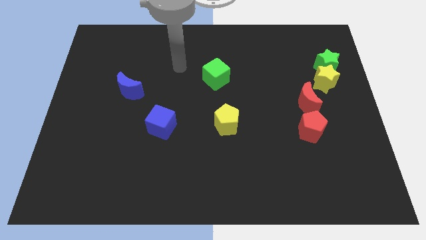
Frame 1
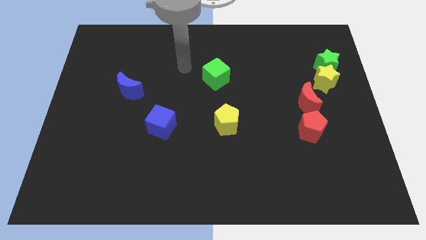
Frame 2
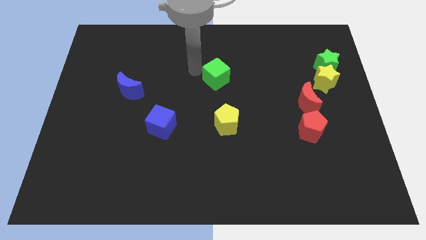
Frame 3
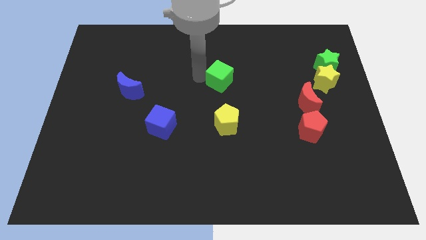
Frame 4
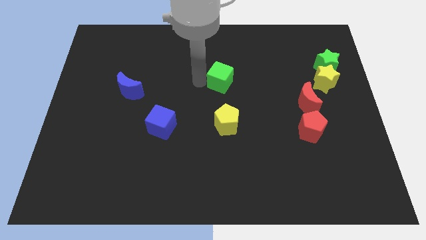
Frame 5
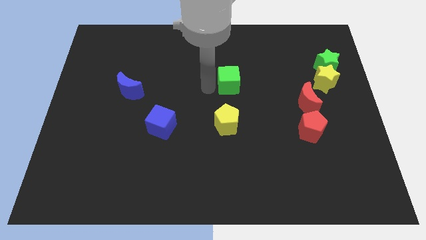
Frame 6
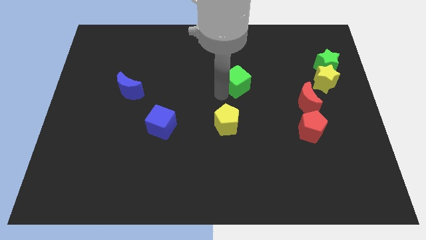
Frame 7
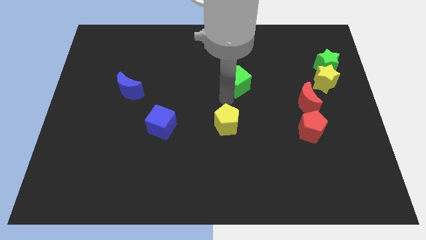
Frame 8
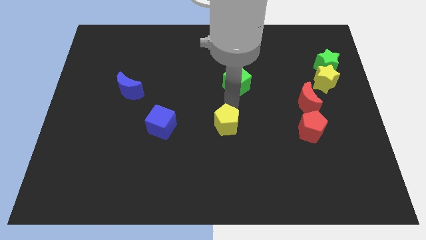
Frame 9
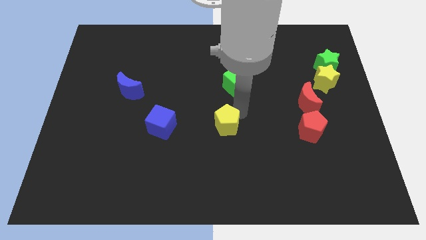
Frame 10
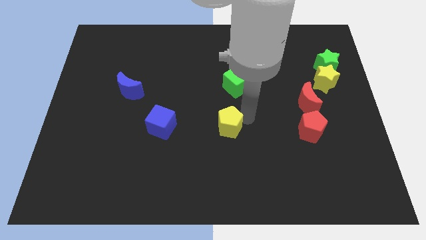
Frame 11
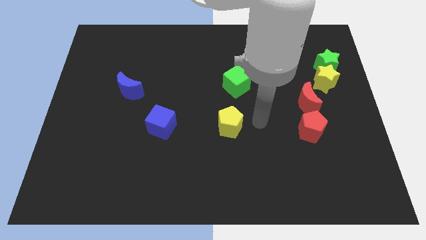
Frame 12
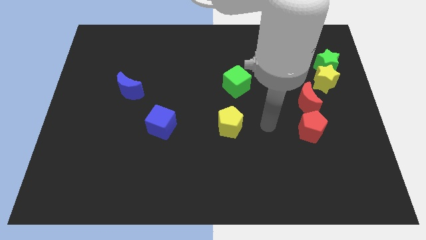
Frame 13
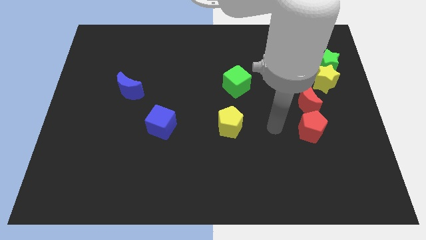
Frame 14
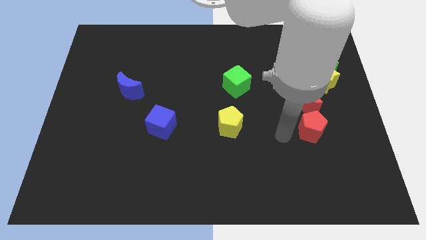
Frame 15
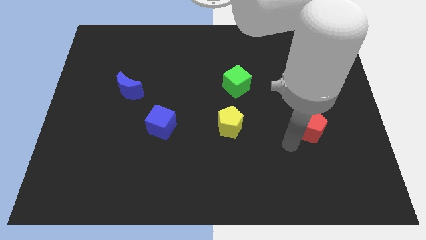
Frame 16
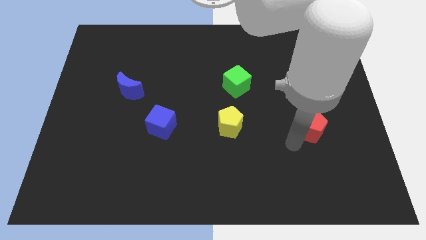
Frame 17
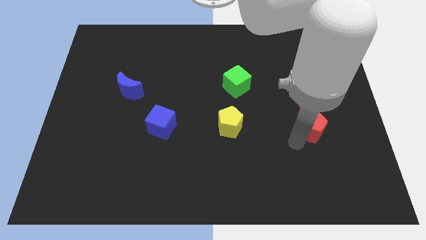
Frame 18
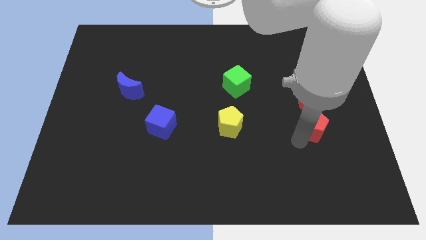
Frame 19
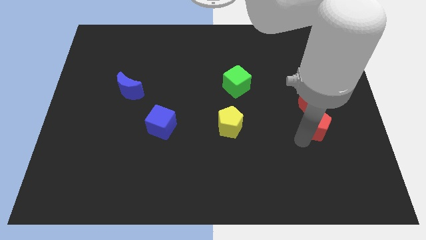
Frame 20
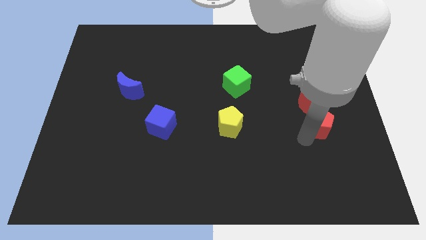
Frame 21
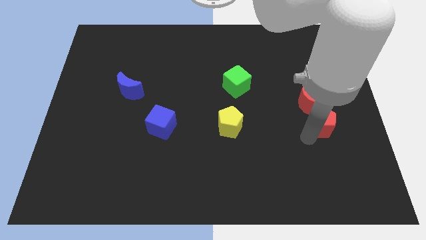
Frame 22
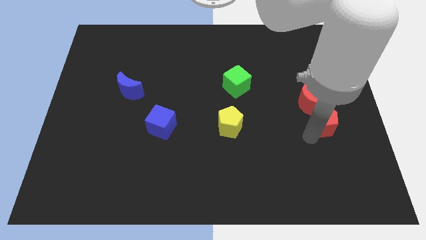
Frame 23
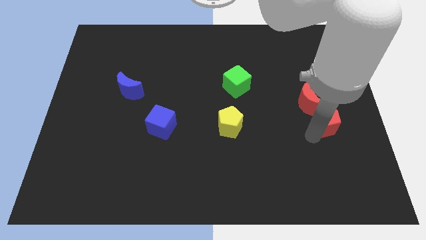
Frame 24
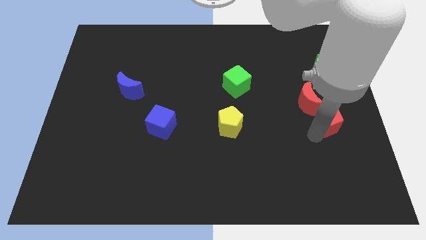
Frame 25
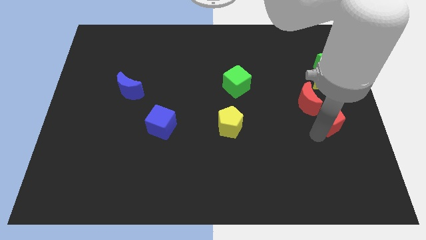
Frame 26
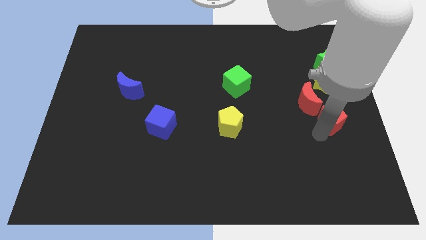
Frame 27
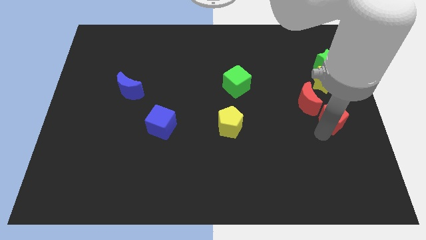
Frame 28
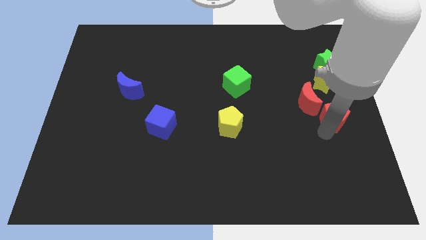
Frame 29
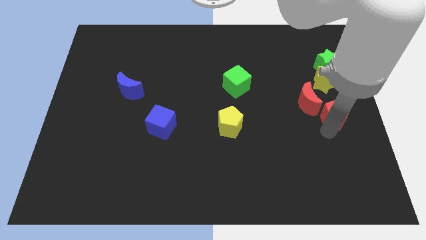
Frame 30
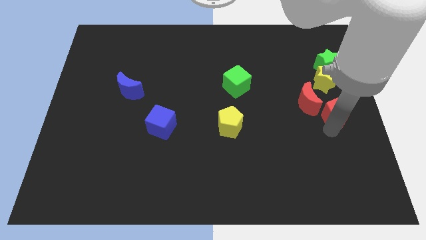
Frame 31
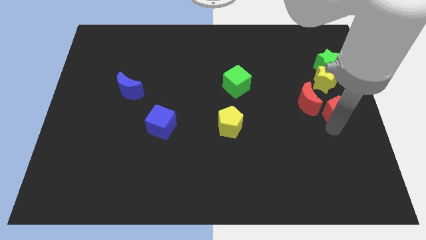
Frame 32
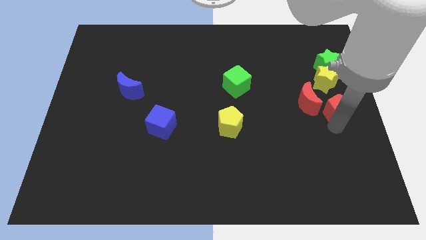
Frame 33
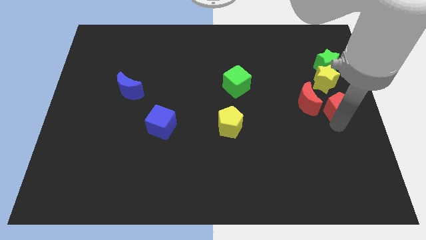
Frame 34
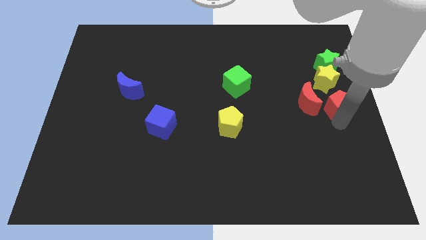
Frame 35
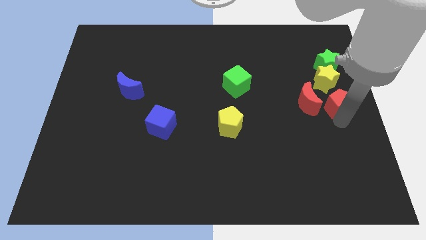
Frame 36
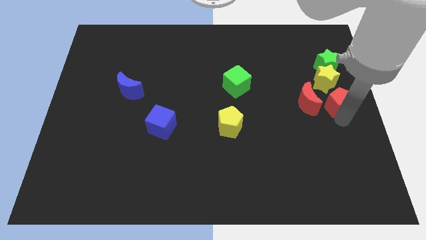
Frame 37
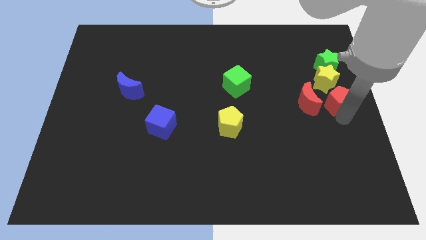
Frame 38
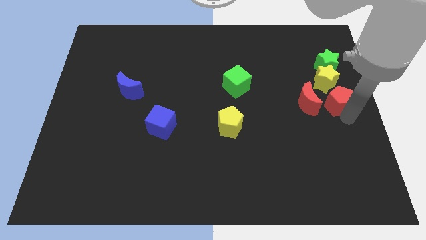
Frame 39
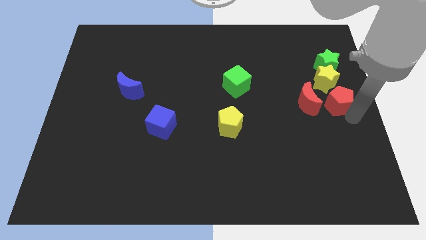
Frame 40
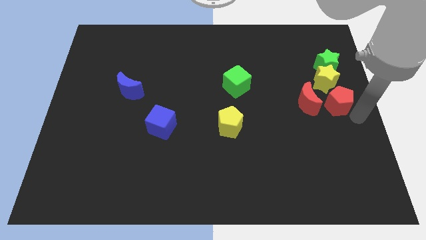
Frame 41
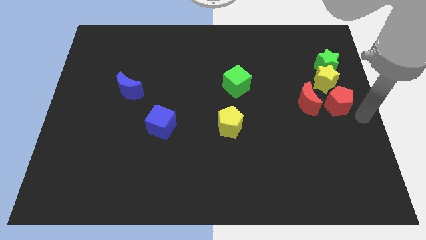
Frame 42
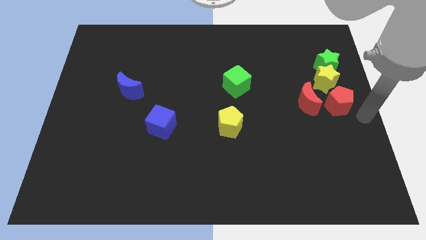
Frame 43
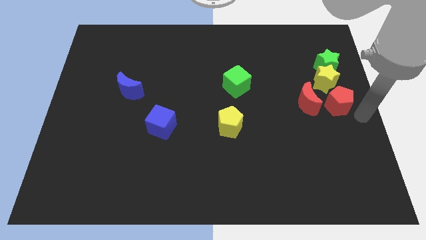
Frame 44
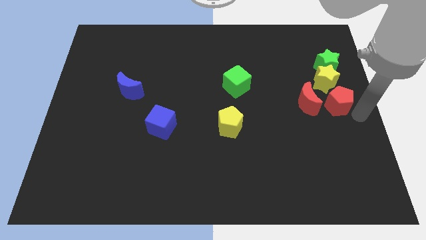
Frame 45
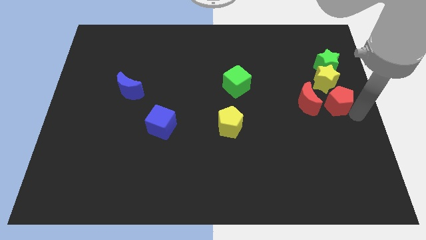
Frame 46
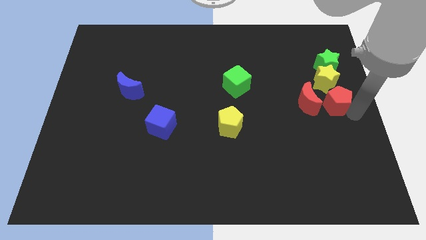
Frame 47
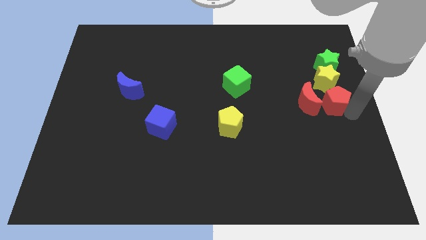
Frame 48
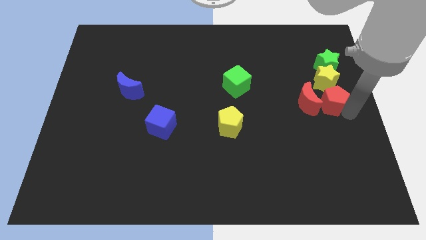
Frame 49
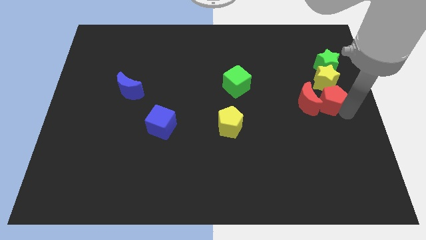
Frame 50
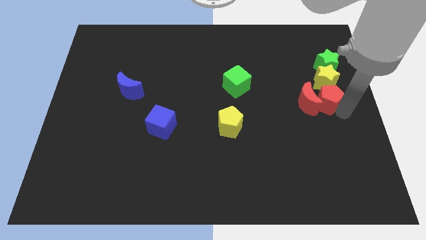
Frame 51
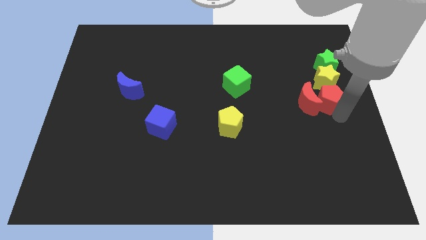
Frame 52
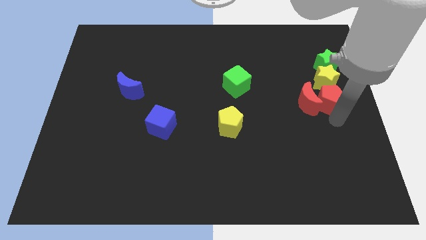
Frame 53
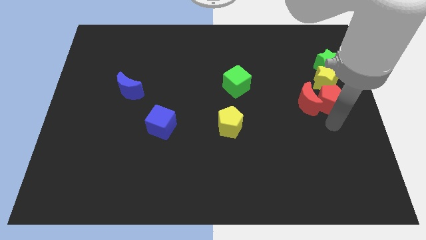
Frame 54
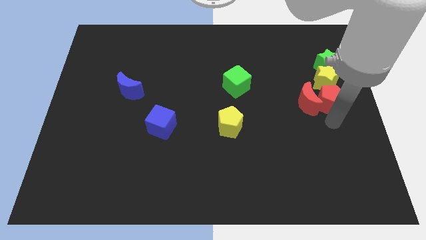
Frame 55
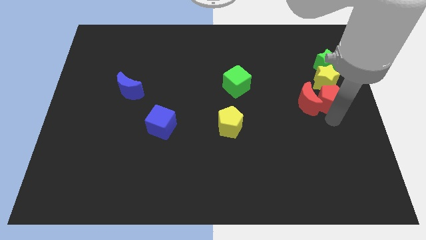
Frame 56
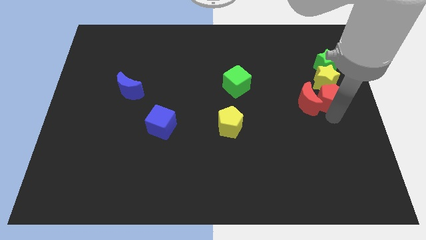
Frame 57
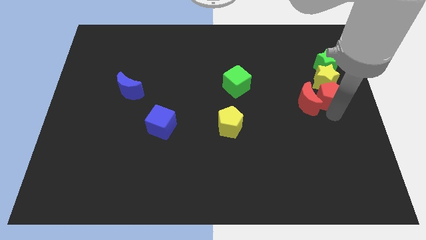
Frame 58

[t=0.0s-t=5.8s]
slide the red pentagon towards the yellow star

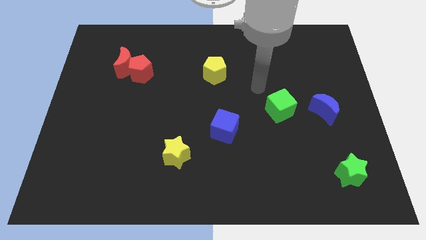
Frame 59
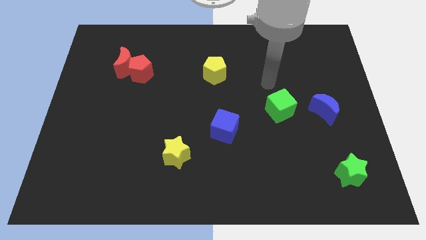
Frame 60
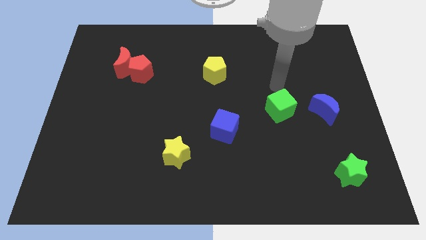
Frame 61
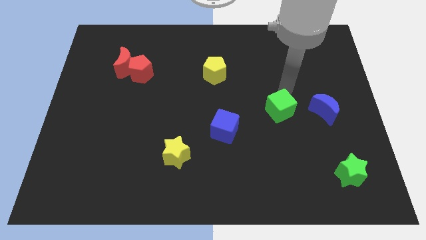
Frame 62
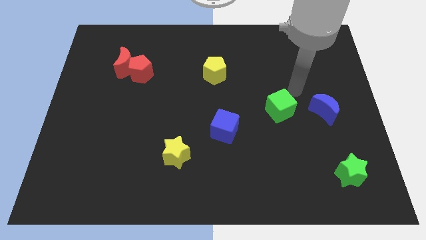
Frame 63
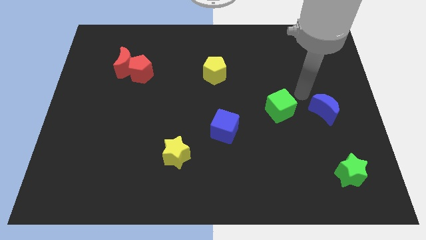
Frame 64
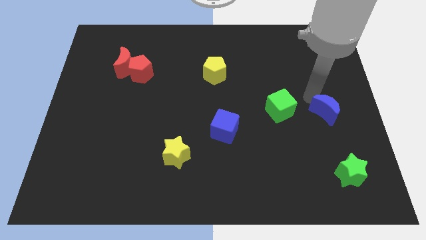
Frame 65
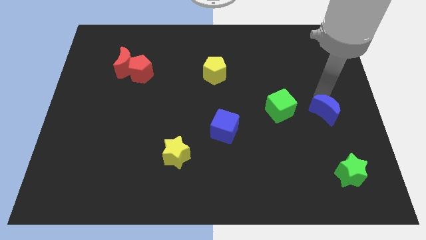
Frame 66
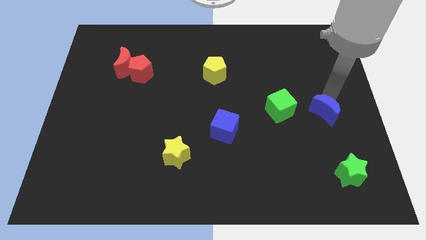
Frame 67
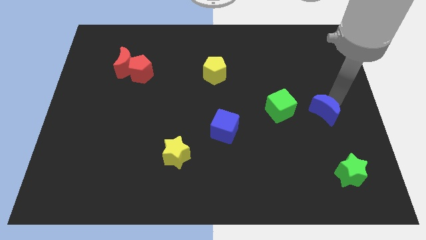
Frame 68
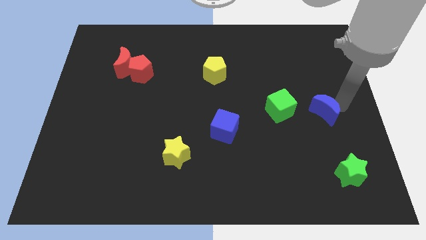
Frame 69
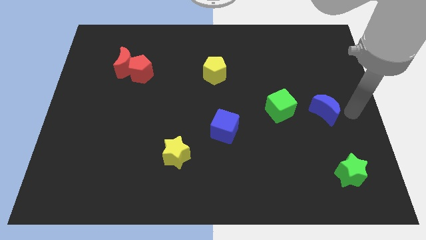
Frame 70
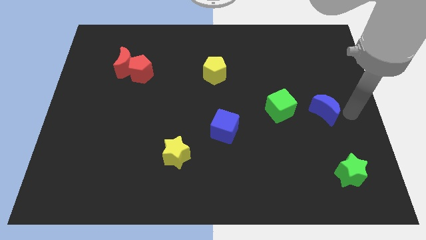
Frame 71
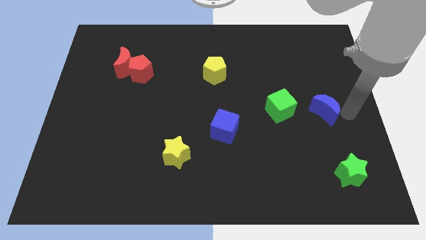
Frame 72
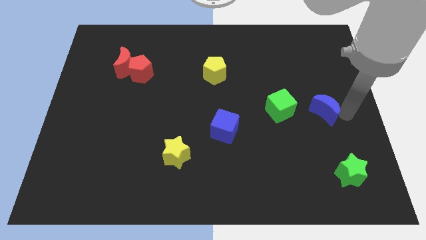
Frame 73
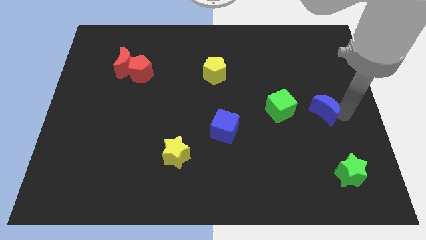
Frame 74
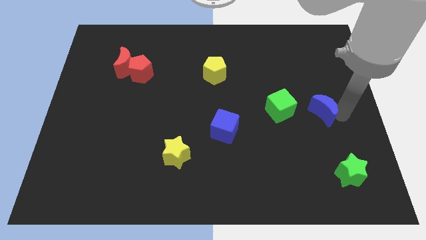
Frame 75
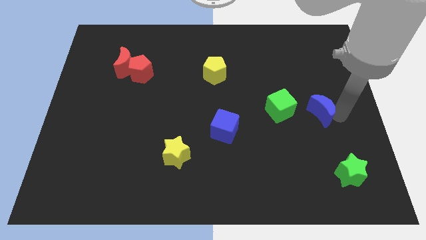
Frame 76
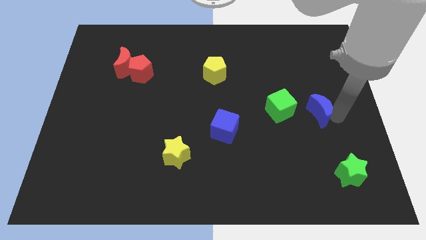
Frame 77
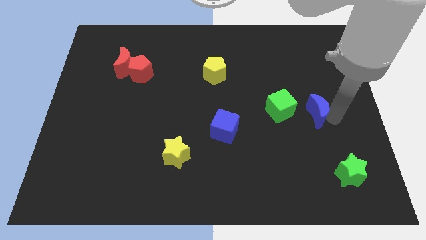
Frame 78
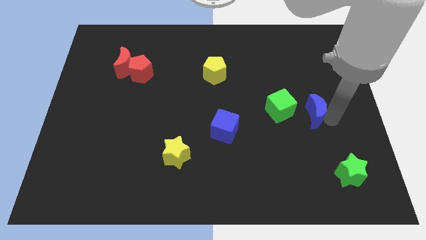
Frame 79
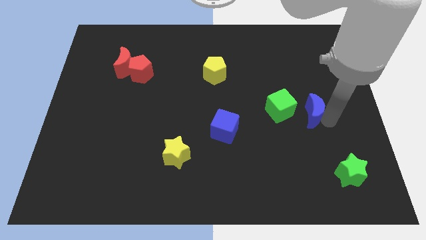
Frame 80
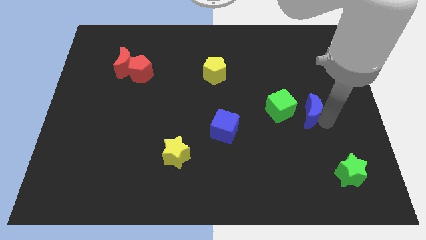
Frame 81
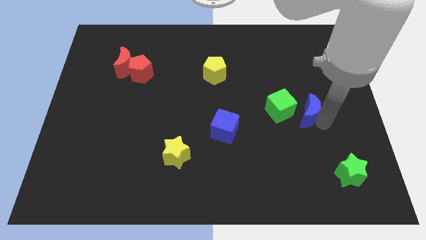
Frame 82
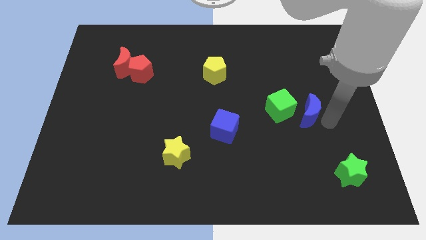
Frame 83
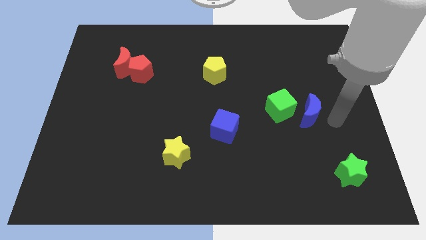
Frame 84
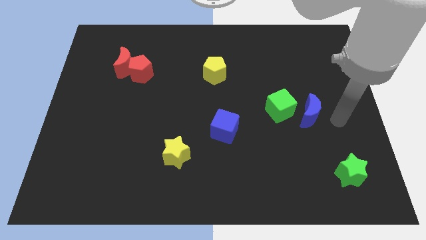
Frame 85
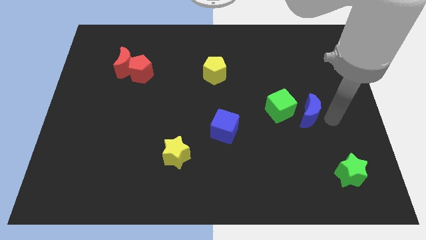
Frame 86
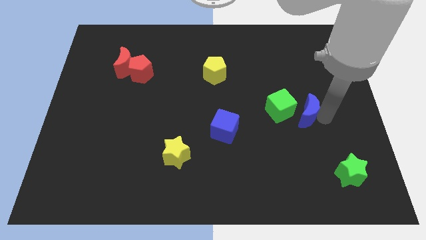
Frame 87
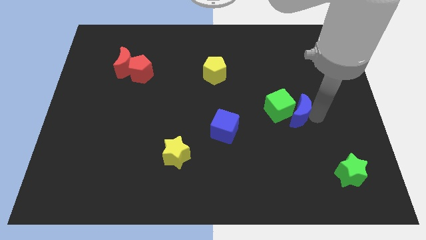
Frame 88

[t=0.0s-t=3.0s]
put the blue moon towards the green cube
